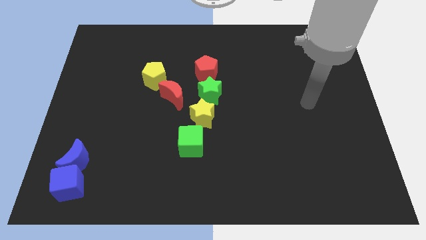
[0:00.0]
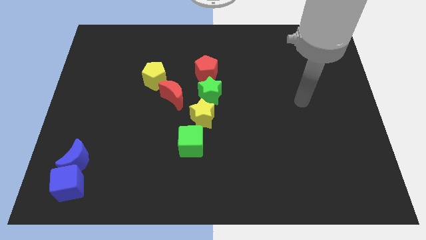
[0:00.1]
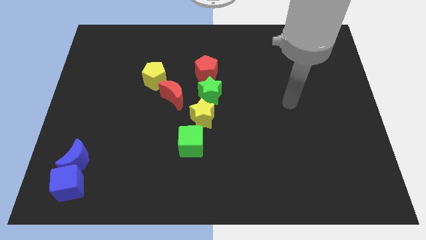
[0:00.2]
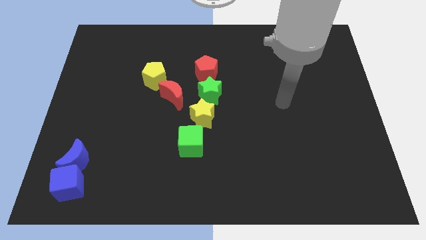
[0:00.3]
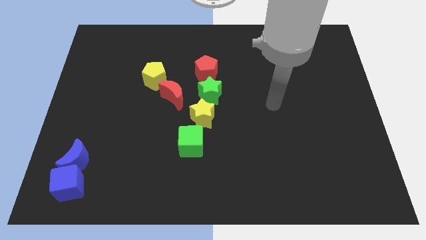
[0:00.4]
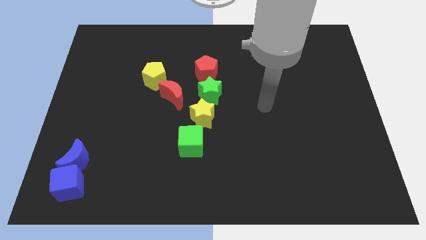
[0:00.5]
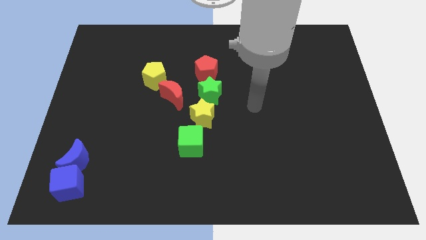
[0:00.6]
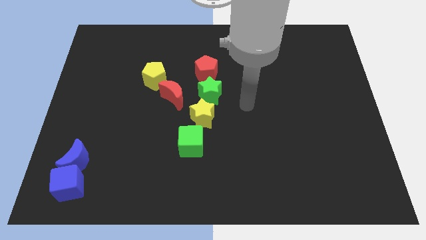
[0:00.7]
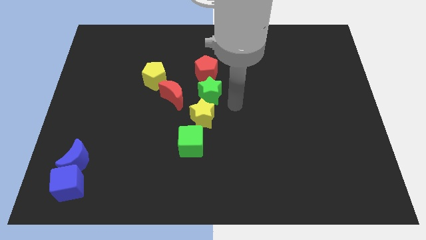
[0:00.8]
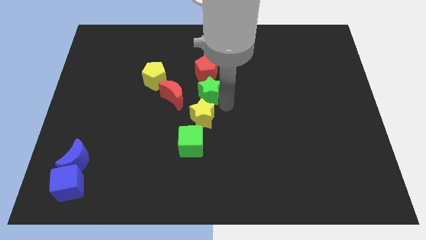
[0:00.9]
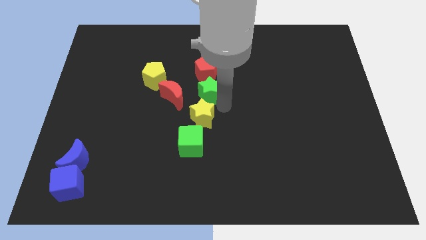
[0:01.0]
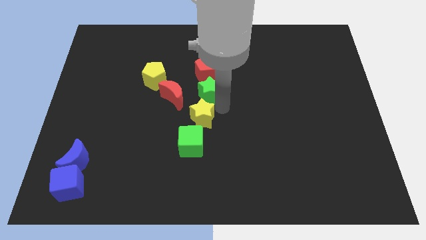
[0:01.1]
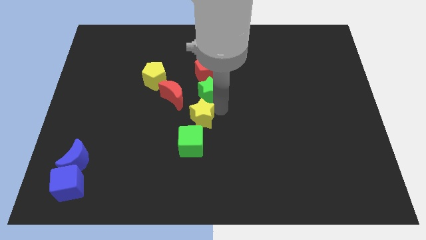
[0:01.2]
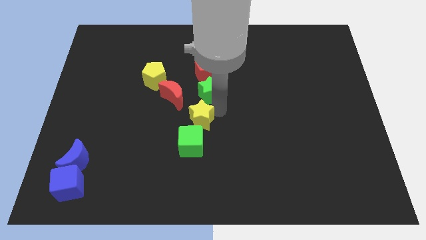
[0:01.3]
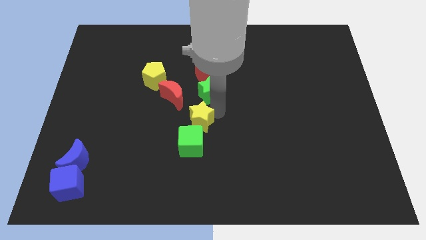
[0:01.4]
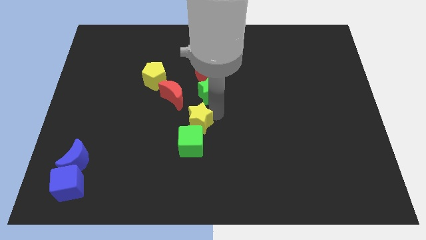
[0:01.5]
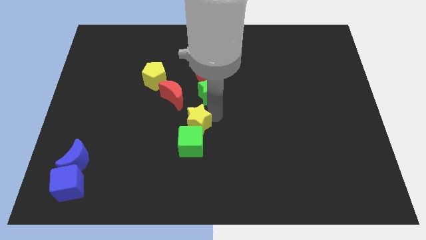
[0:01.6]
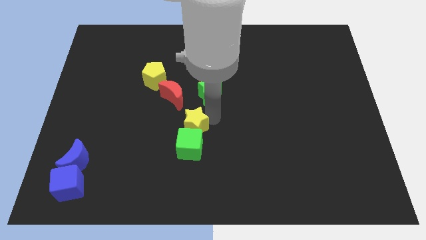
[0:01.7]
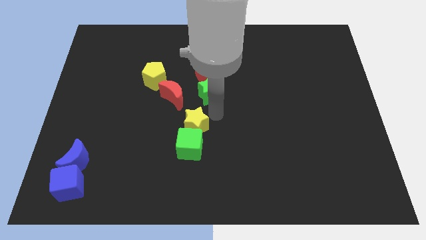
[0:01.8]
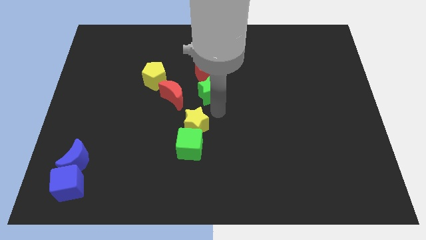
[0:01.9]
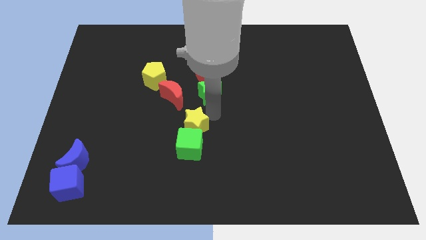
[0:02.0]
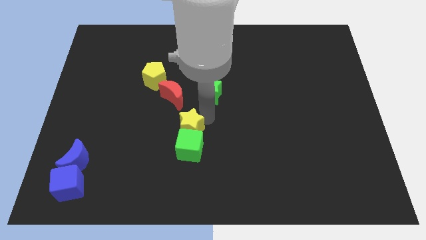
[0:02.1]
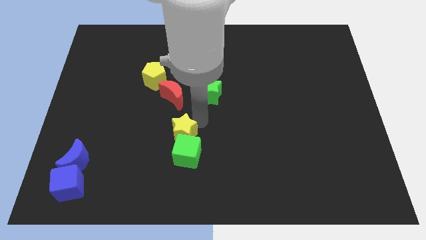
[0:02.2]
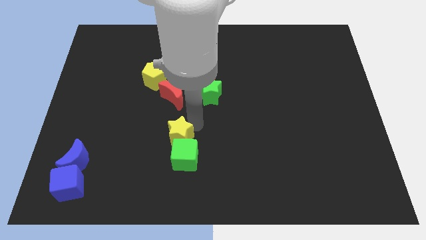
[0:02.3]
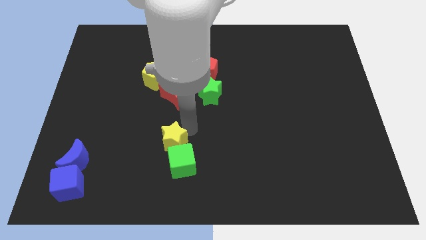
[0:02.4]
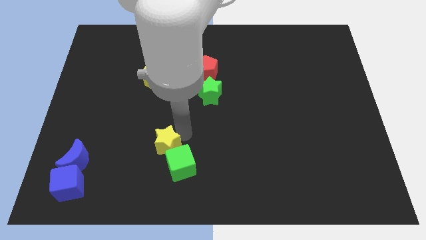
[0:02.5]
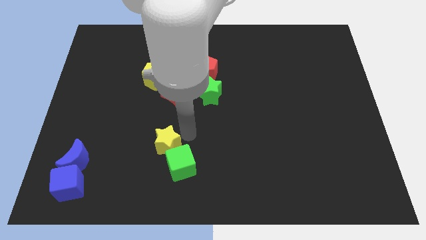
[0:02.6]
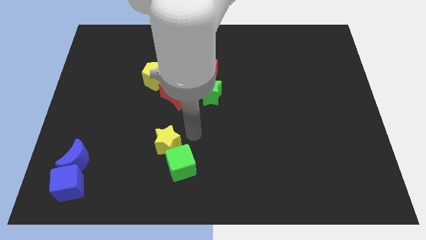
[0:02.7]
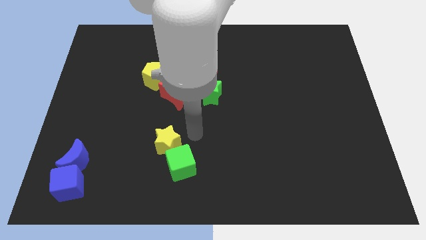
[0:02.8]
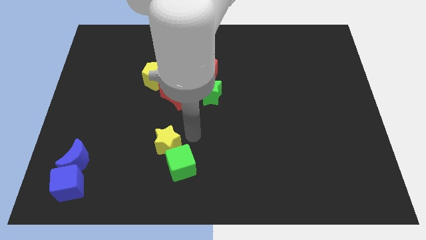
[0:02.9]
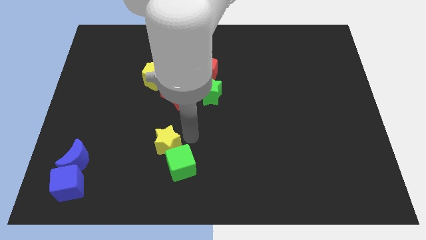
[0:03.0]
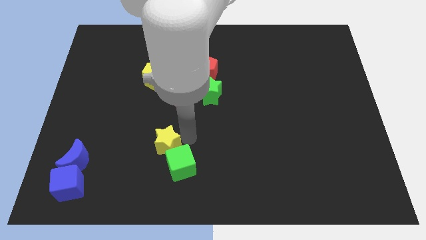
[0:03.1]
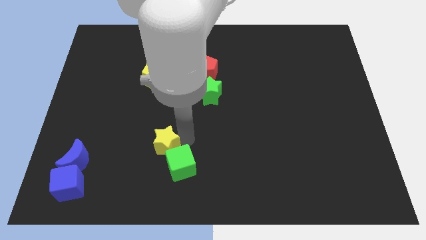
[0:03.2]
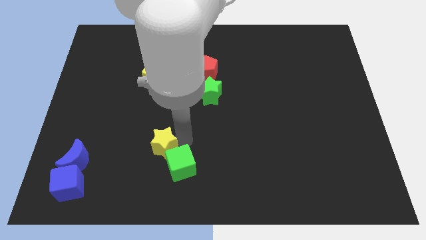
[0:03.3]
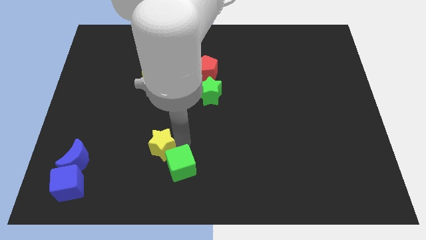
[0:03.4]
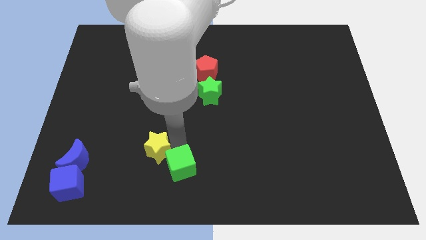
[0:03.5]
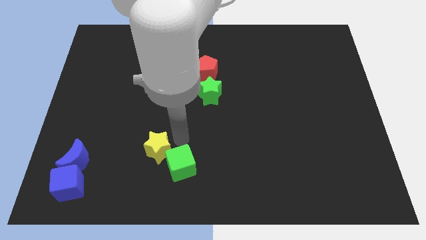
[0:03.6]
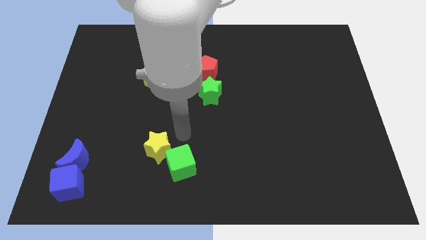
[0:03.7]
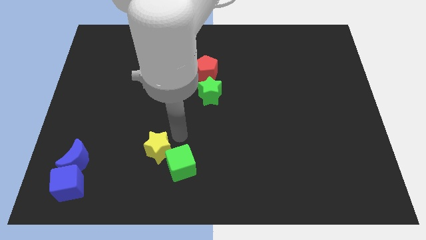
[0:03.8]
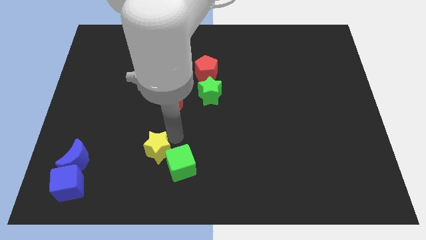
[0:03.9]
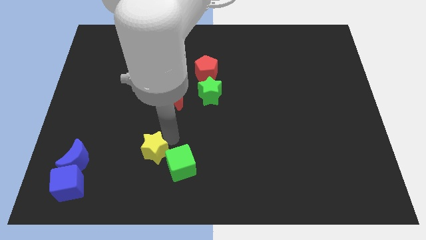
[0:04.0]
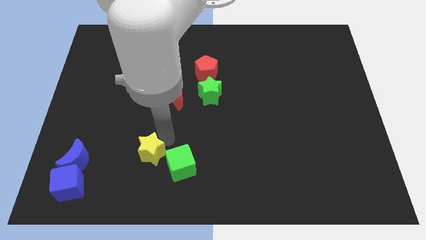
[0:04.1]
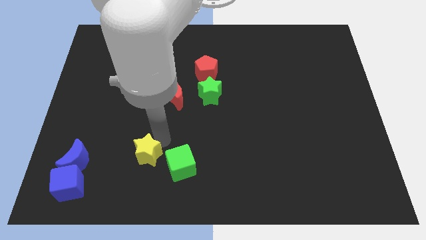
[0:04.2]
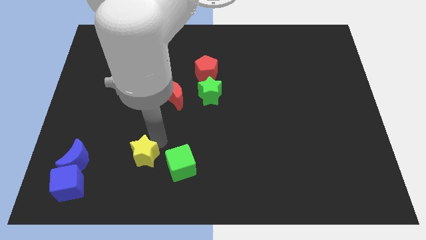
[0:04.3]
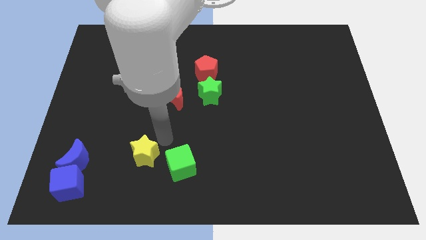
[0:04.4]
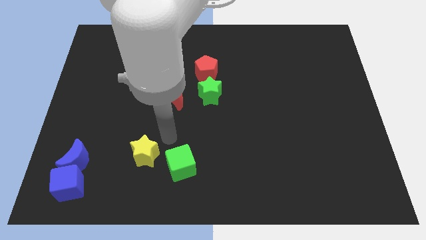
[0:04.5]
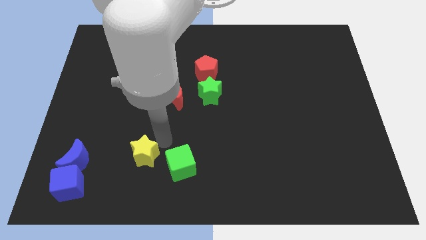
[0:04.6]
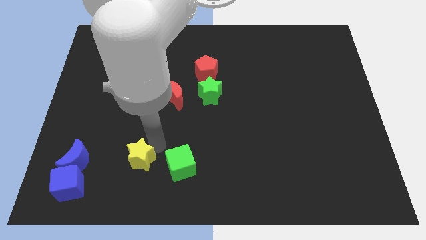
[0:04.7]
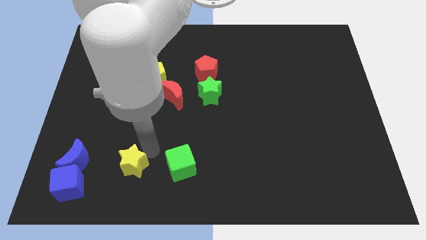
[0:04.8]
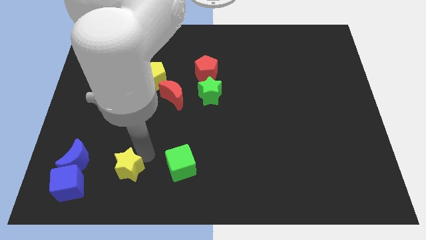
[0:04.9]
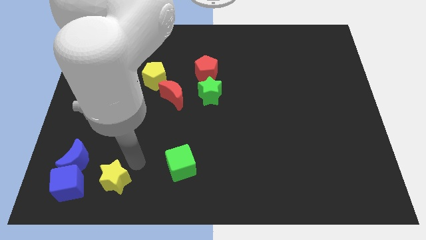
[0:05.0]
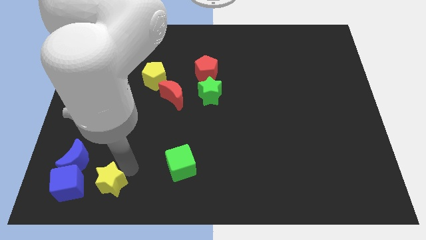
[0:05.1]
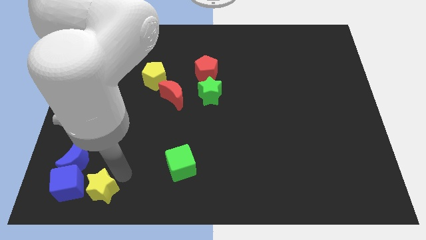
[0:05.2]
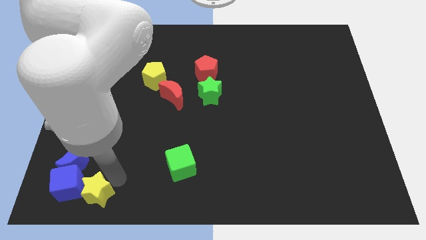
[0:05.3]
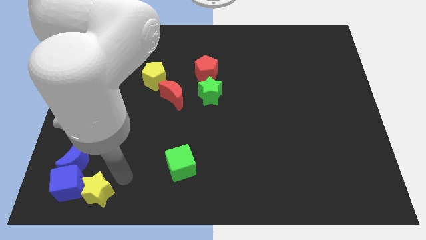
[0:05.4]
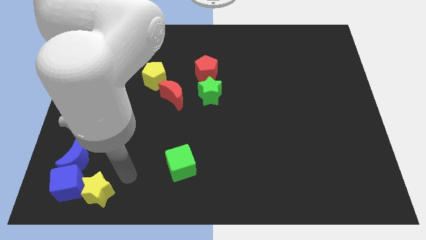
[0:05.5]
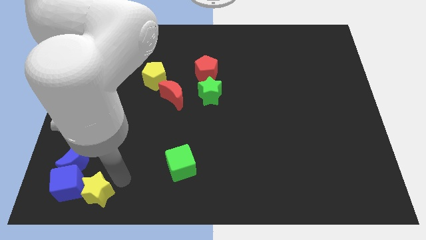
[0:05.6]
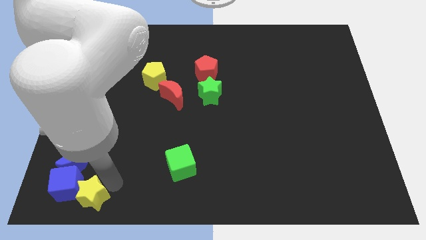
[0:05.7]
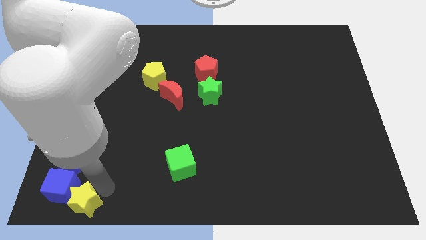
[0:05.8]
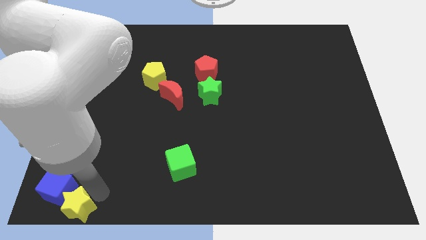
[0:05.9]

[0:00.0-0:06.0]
push the yellow star to the bottom left
